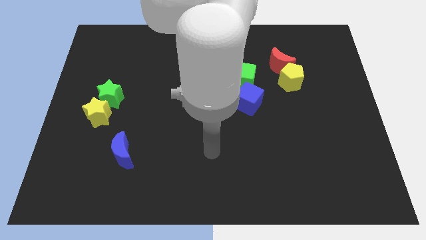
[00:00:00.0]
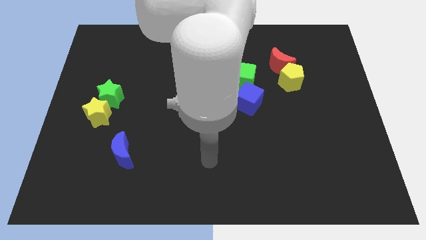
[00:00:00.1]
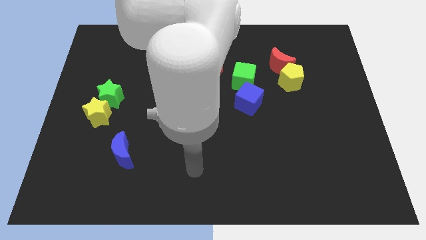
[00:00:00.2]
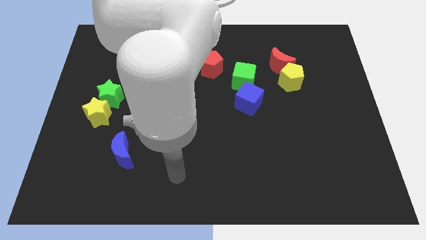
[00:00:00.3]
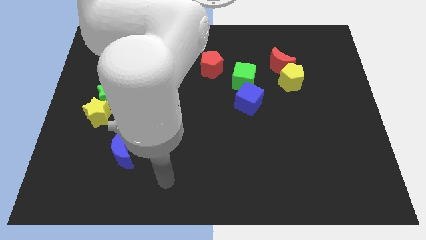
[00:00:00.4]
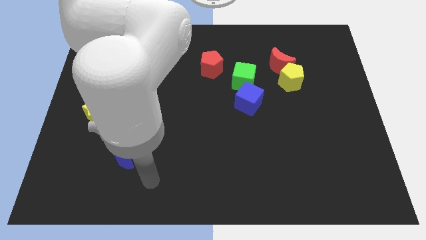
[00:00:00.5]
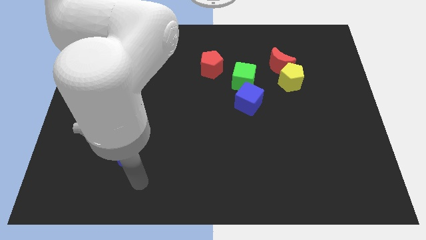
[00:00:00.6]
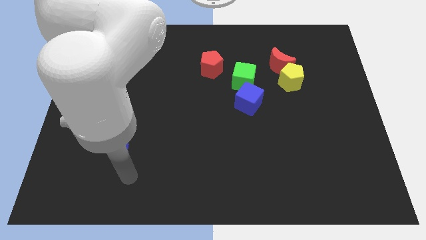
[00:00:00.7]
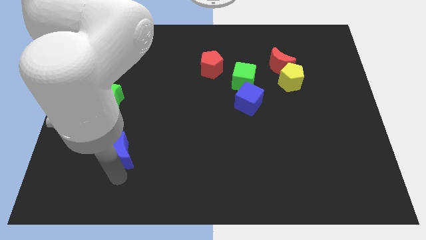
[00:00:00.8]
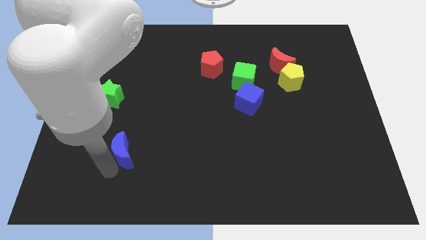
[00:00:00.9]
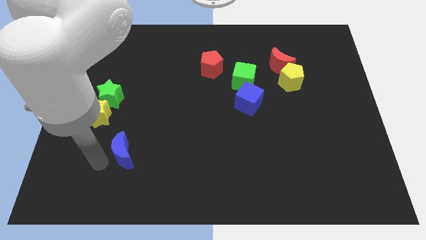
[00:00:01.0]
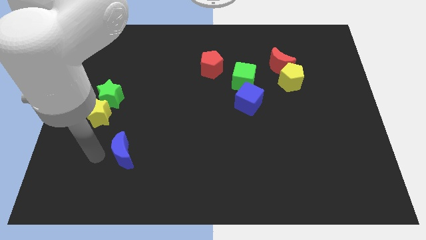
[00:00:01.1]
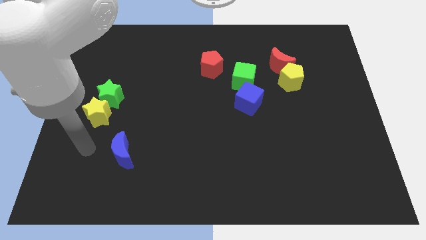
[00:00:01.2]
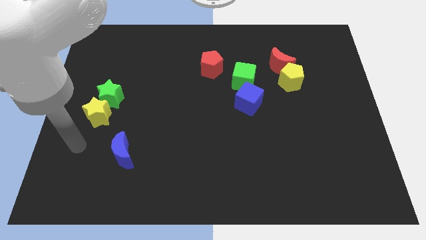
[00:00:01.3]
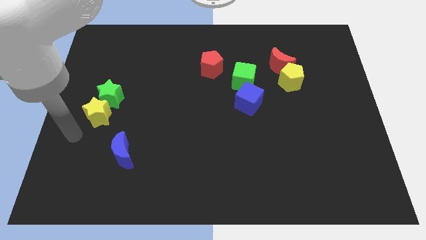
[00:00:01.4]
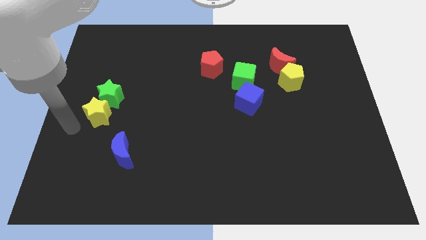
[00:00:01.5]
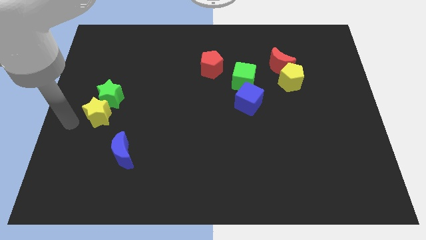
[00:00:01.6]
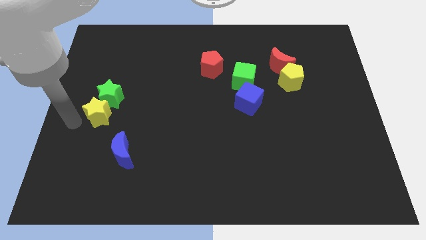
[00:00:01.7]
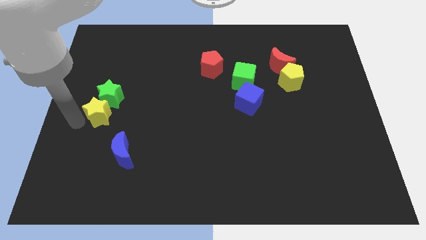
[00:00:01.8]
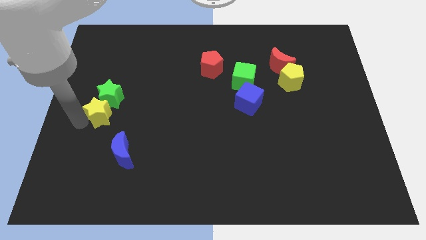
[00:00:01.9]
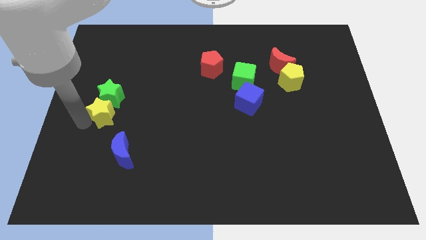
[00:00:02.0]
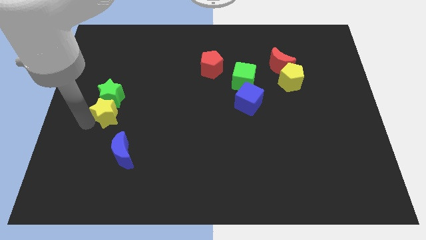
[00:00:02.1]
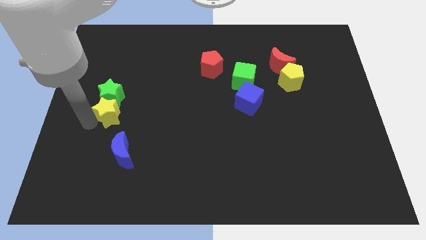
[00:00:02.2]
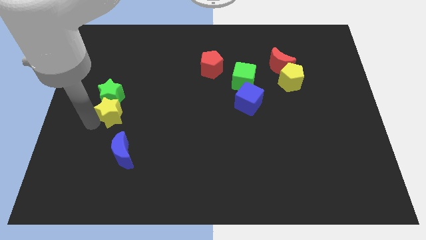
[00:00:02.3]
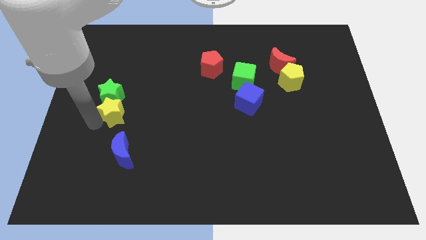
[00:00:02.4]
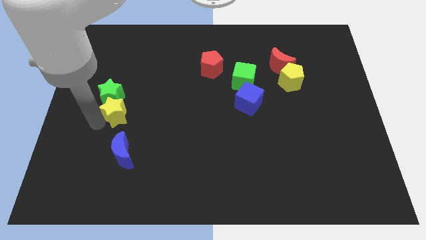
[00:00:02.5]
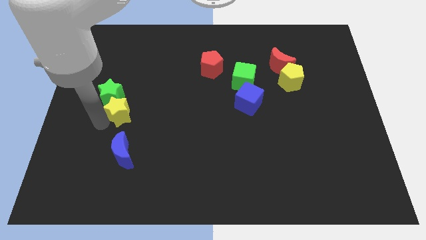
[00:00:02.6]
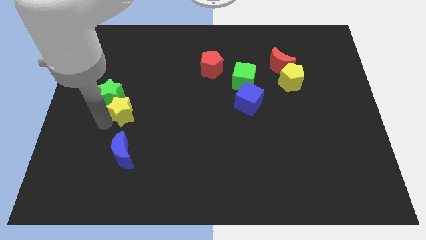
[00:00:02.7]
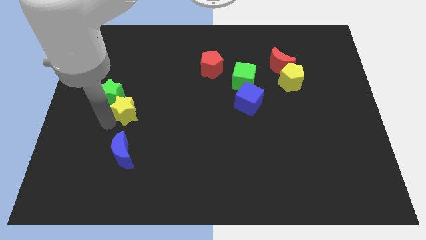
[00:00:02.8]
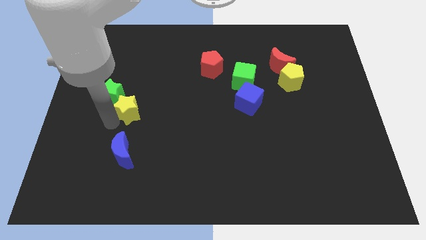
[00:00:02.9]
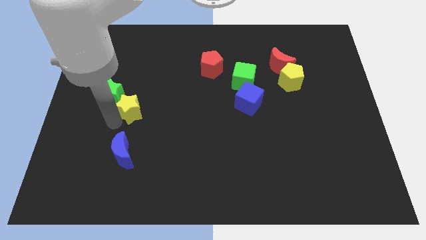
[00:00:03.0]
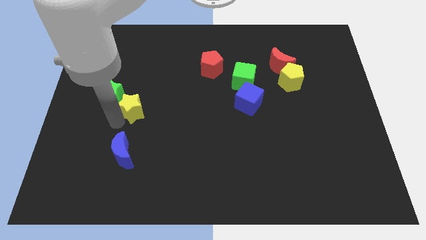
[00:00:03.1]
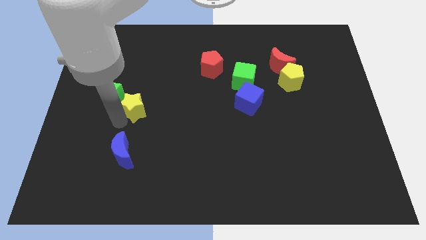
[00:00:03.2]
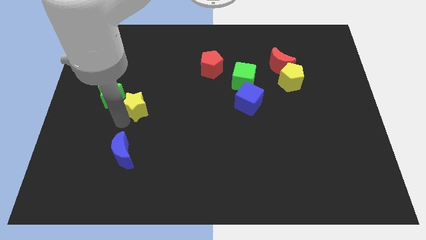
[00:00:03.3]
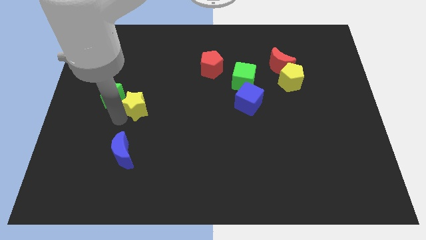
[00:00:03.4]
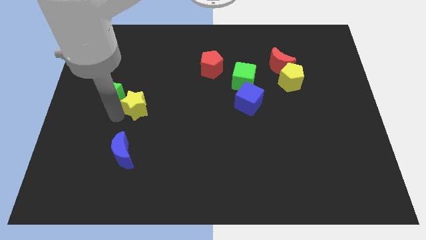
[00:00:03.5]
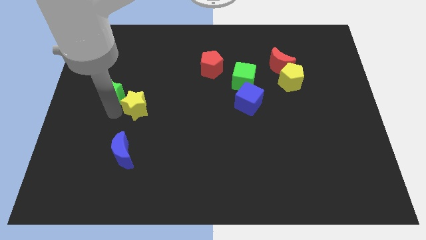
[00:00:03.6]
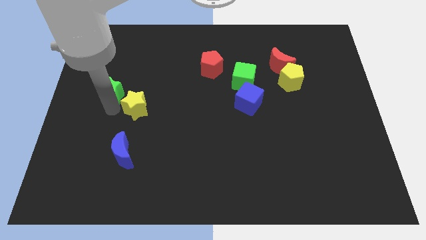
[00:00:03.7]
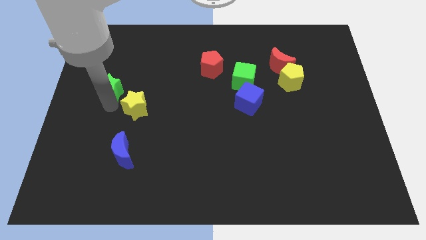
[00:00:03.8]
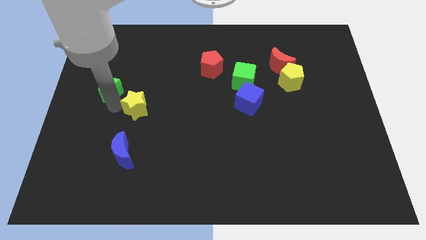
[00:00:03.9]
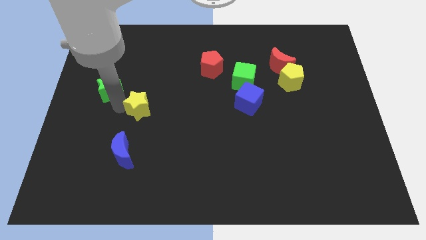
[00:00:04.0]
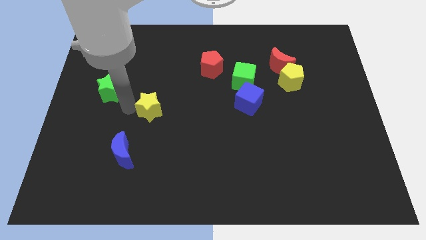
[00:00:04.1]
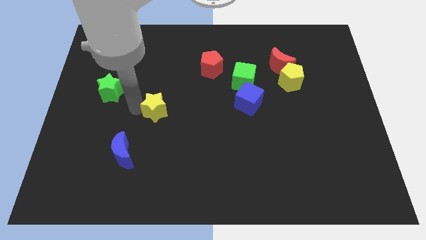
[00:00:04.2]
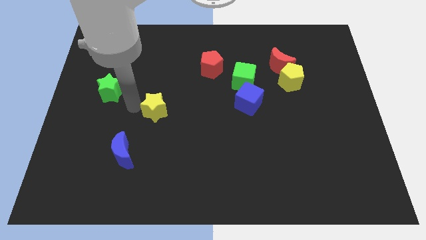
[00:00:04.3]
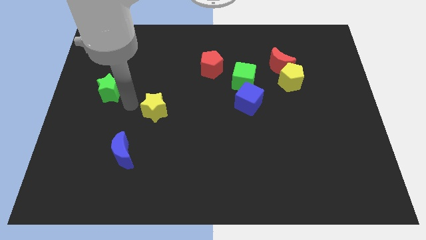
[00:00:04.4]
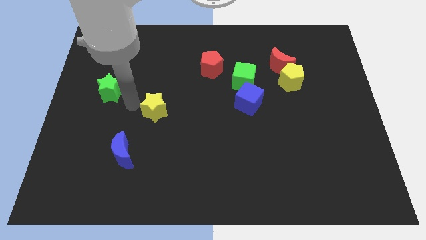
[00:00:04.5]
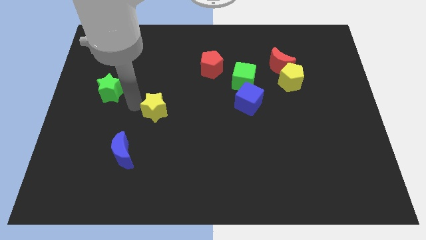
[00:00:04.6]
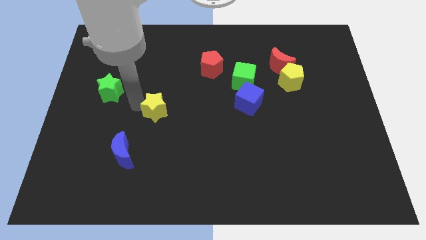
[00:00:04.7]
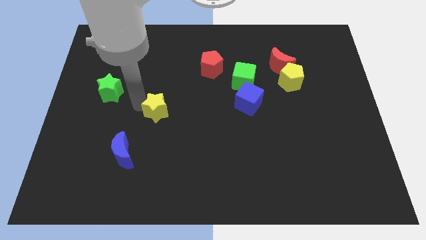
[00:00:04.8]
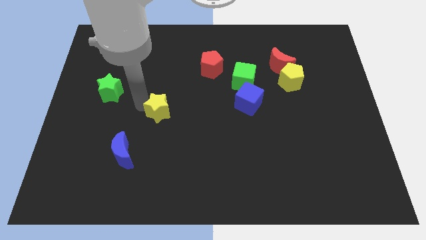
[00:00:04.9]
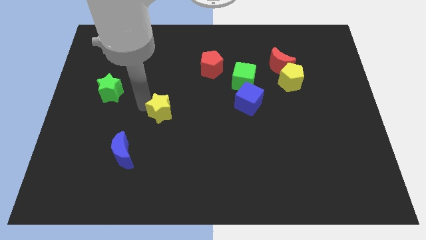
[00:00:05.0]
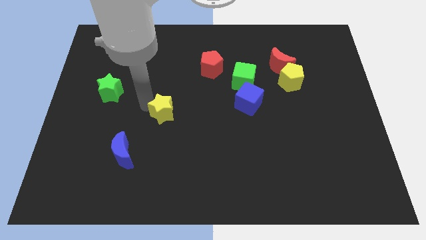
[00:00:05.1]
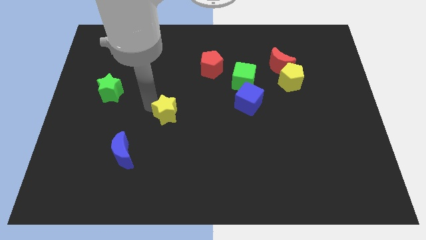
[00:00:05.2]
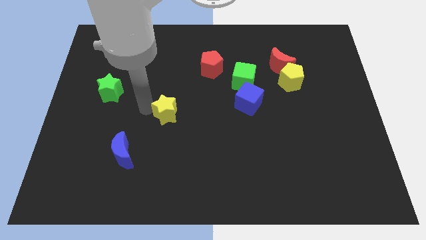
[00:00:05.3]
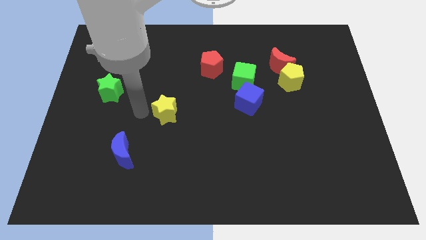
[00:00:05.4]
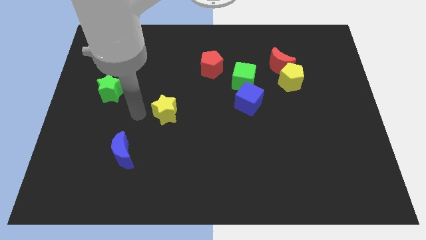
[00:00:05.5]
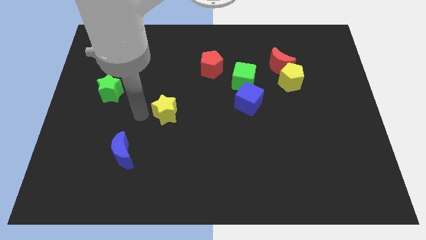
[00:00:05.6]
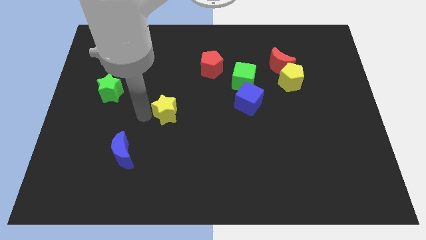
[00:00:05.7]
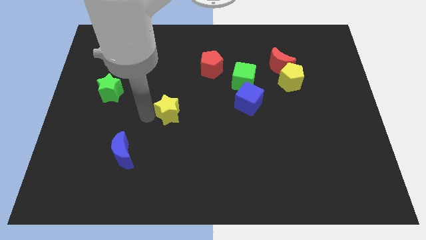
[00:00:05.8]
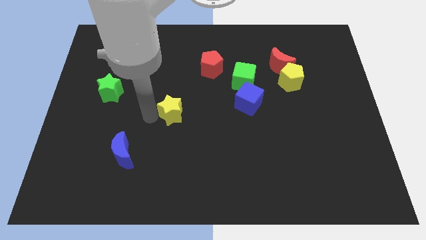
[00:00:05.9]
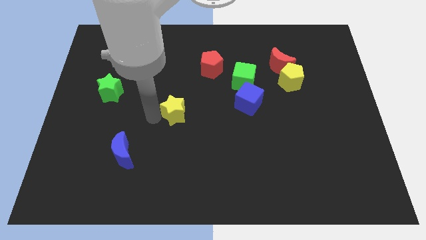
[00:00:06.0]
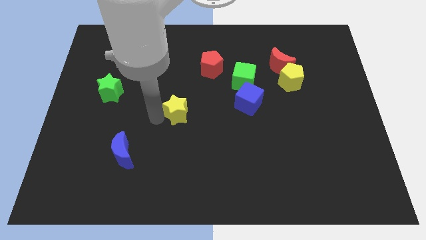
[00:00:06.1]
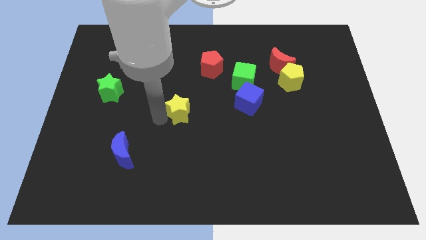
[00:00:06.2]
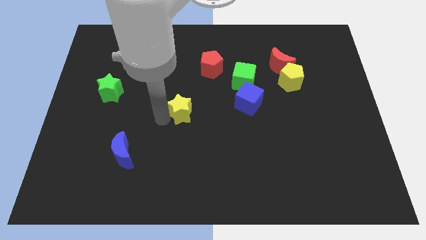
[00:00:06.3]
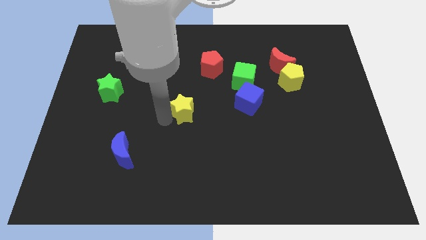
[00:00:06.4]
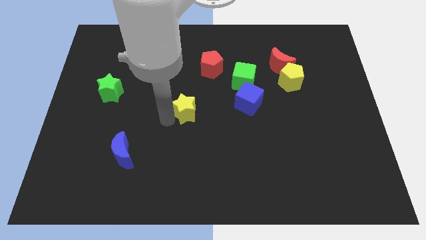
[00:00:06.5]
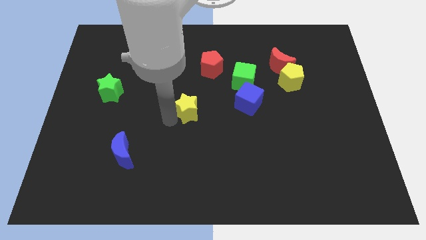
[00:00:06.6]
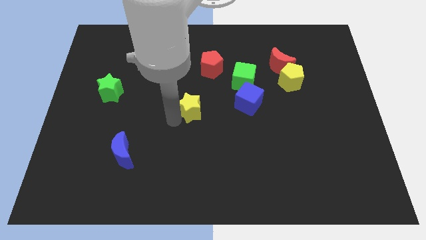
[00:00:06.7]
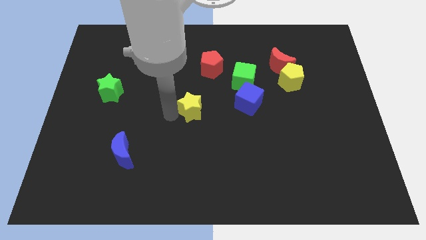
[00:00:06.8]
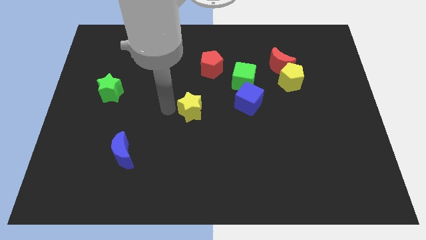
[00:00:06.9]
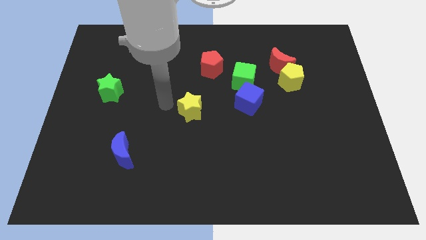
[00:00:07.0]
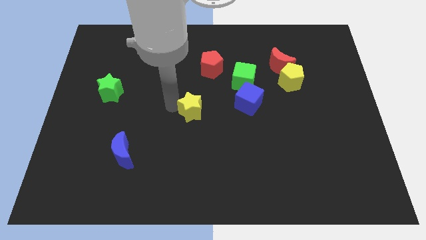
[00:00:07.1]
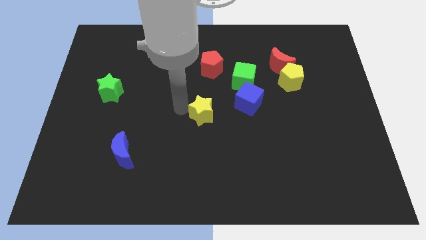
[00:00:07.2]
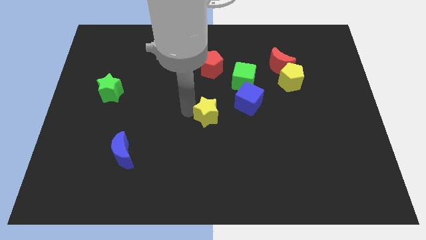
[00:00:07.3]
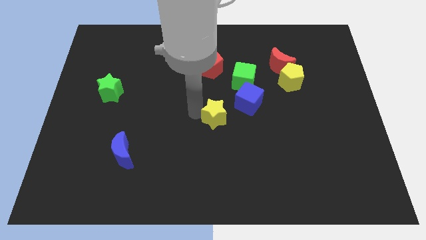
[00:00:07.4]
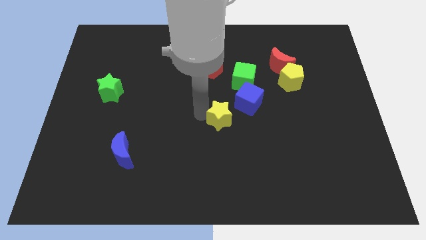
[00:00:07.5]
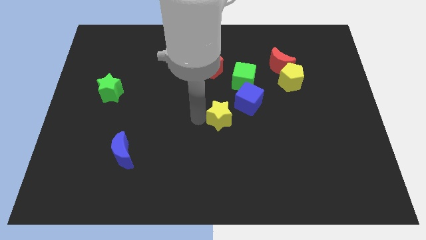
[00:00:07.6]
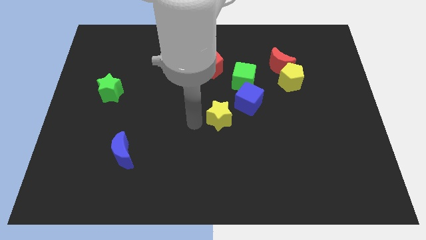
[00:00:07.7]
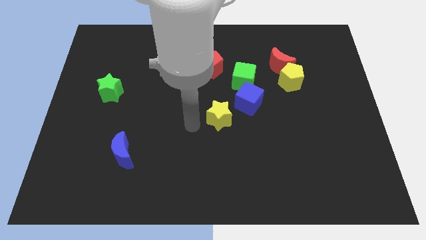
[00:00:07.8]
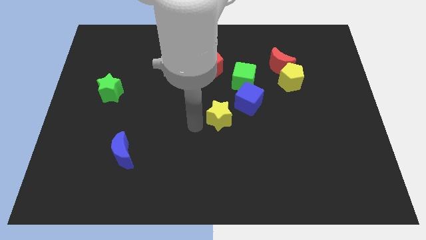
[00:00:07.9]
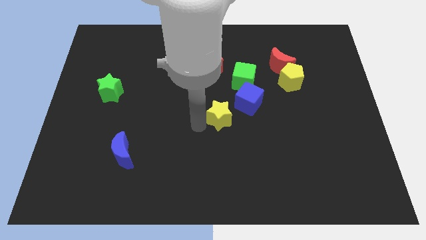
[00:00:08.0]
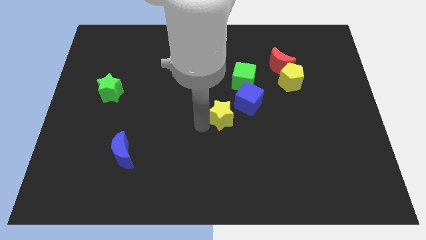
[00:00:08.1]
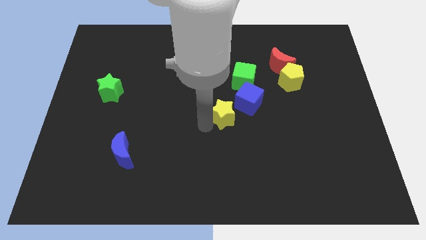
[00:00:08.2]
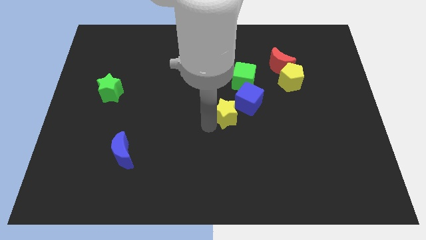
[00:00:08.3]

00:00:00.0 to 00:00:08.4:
put the yellow star to the bottom side of the green cube
